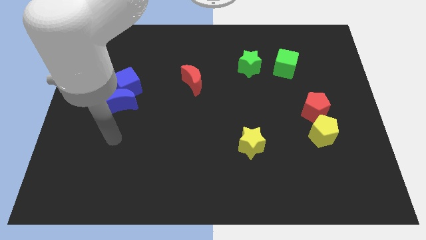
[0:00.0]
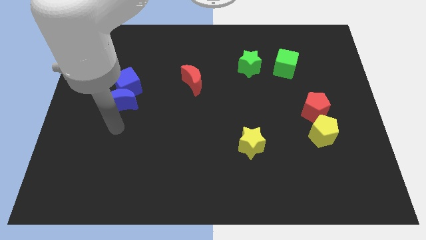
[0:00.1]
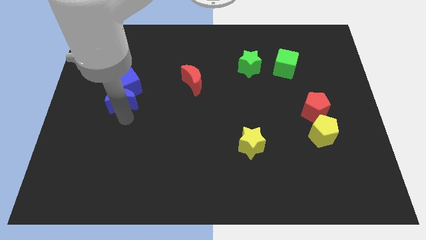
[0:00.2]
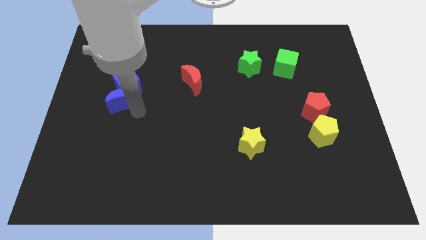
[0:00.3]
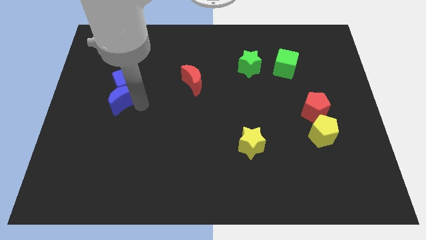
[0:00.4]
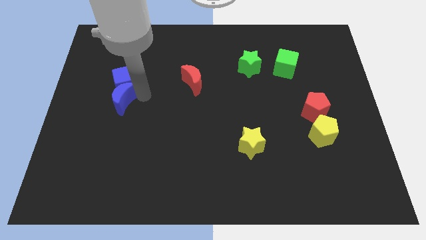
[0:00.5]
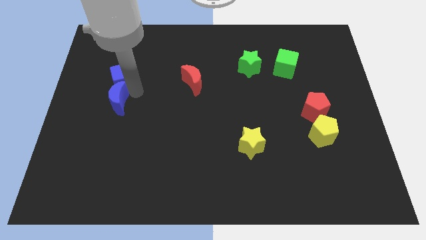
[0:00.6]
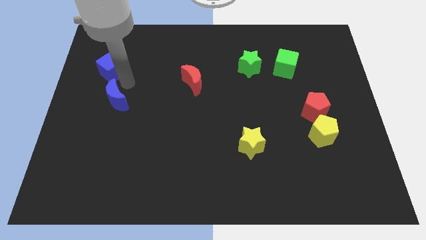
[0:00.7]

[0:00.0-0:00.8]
separate the blue moon from the blue cube

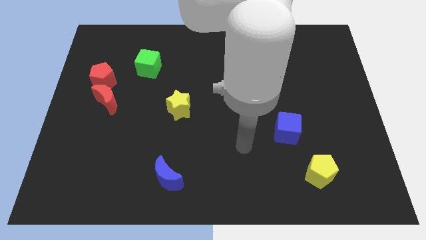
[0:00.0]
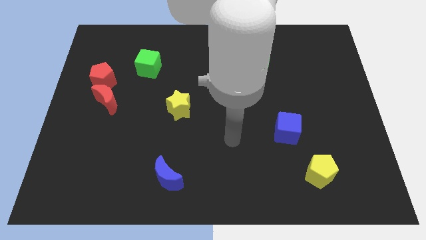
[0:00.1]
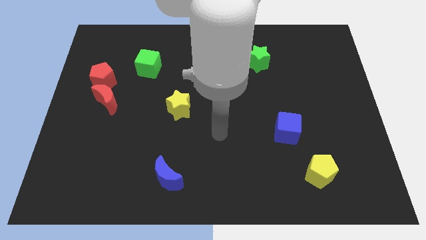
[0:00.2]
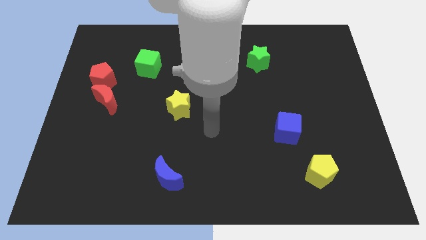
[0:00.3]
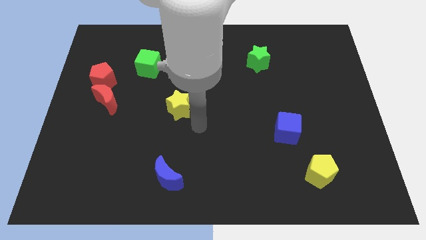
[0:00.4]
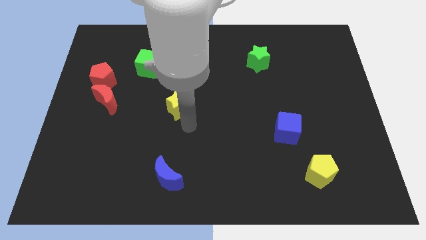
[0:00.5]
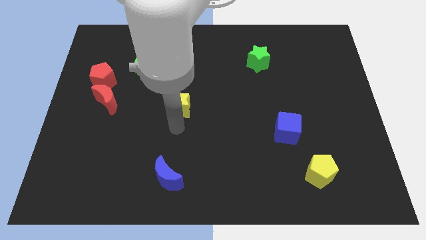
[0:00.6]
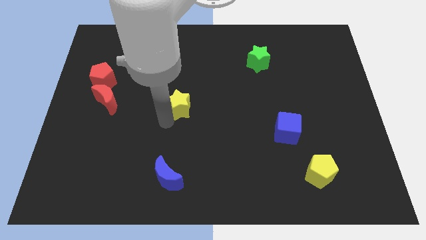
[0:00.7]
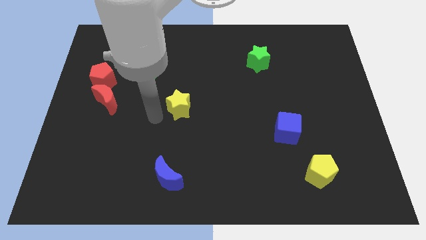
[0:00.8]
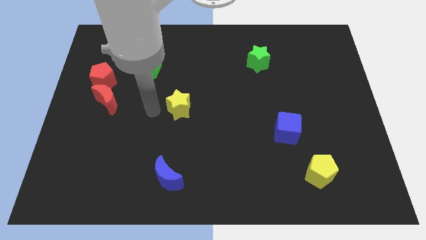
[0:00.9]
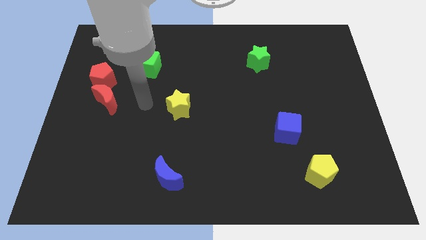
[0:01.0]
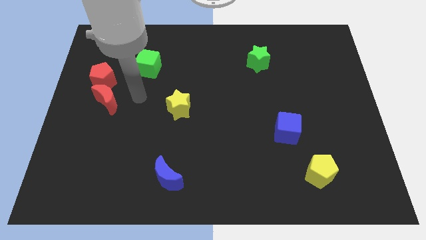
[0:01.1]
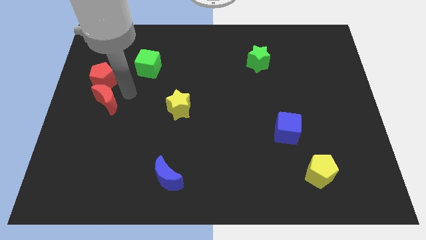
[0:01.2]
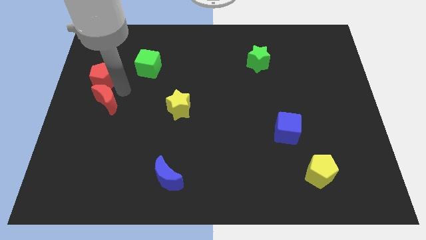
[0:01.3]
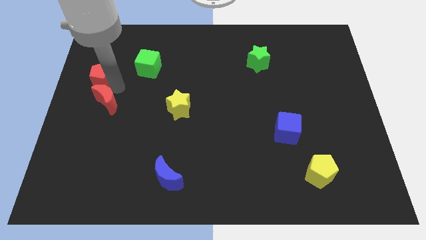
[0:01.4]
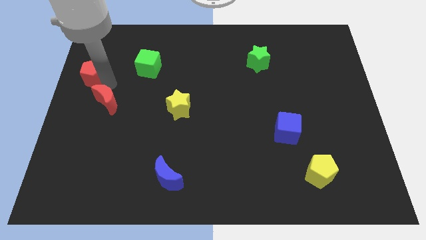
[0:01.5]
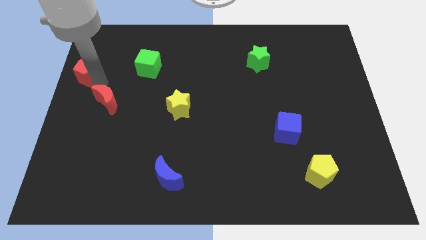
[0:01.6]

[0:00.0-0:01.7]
separate the red moon from the red pentagon

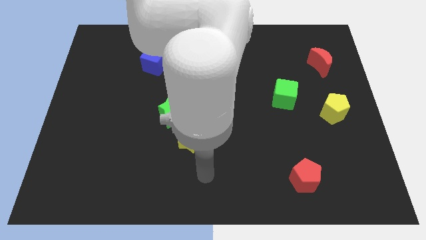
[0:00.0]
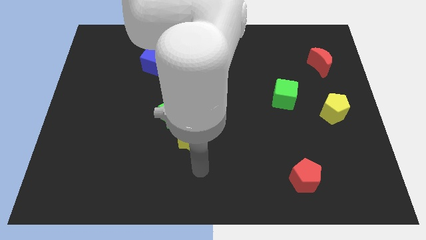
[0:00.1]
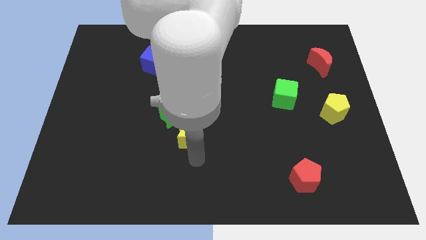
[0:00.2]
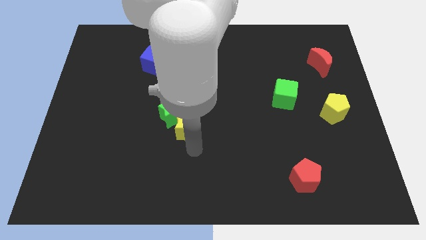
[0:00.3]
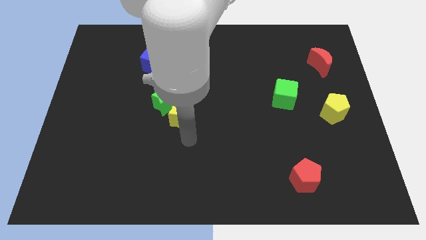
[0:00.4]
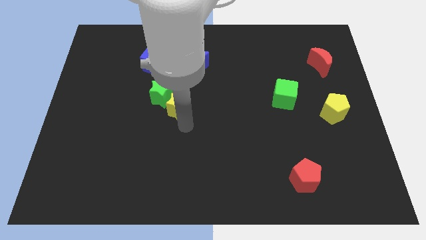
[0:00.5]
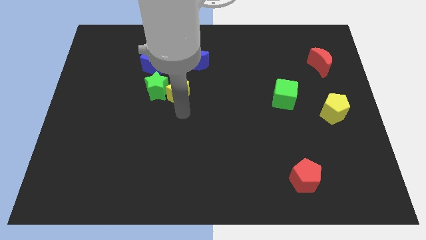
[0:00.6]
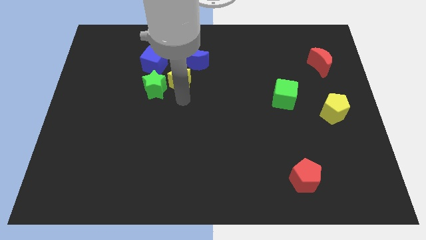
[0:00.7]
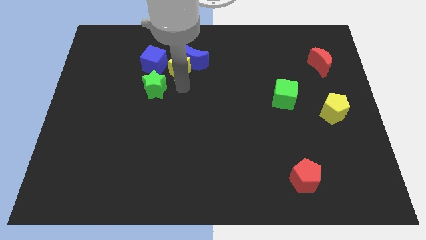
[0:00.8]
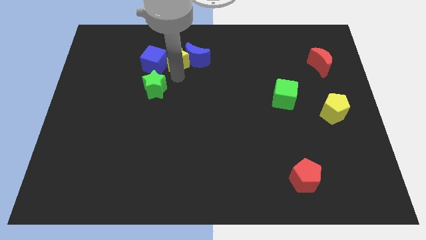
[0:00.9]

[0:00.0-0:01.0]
separate the green star from the yellow star

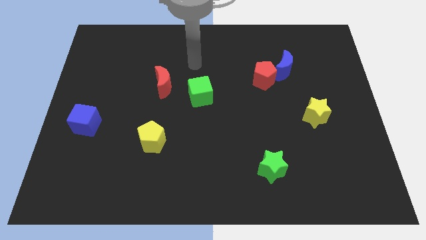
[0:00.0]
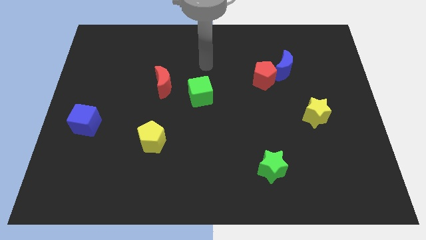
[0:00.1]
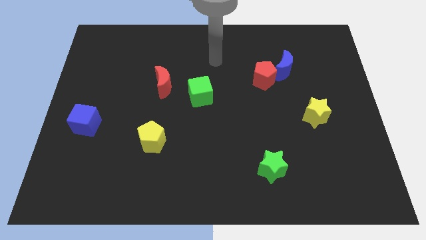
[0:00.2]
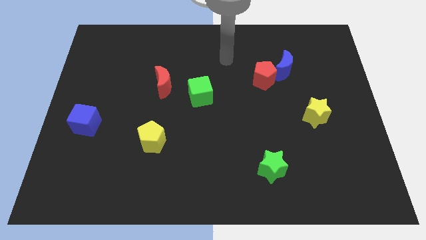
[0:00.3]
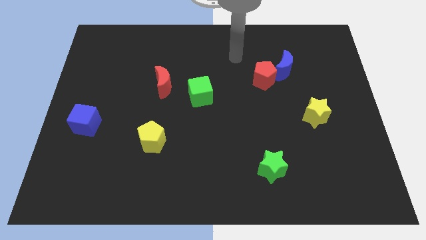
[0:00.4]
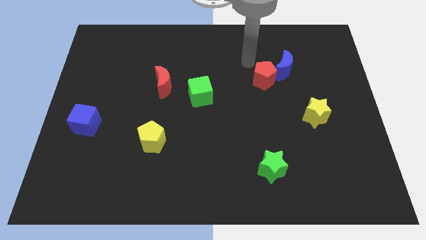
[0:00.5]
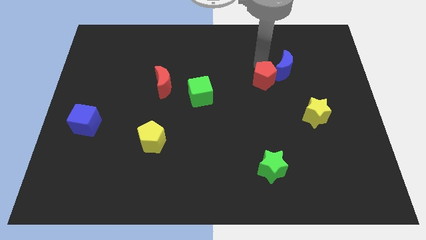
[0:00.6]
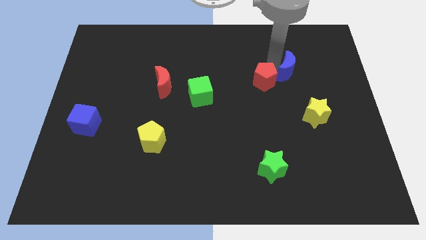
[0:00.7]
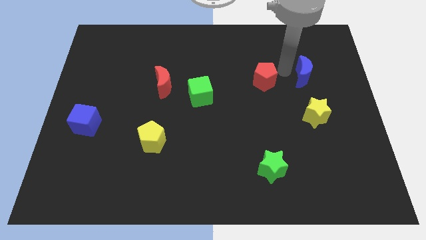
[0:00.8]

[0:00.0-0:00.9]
move the red pentagon away from the blue moon

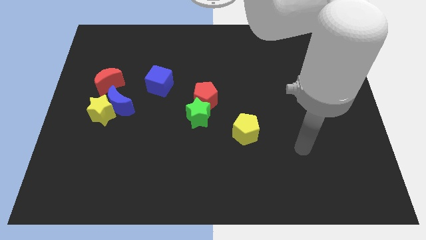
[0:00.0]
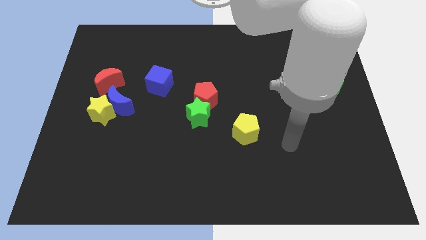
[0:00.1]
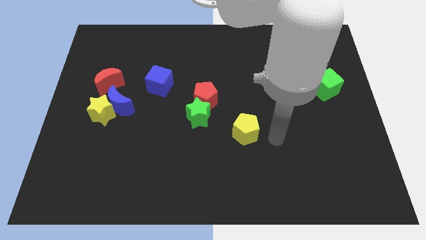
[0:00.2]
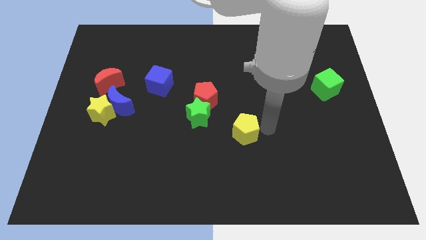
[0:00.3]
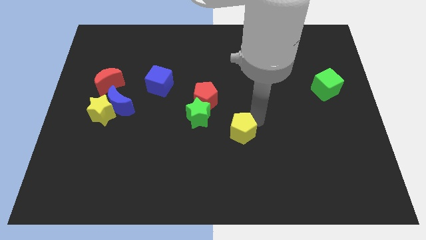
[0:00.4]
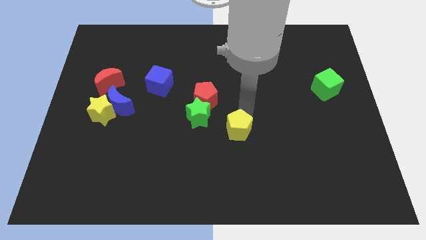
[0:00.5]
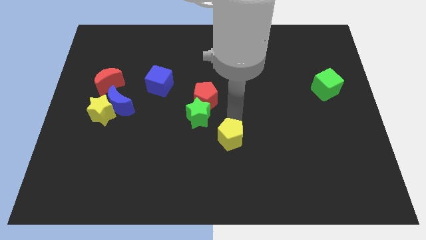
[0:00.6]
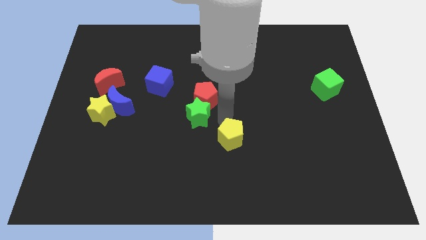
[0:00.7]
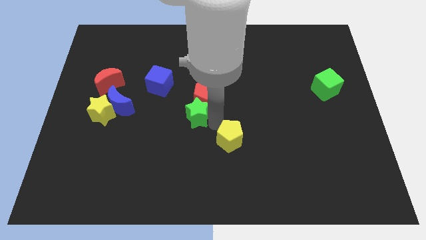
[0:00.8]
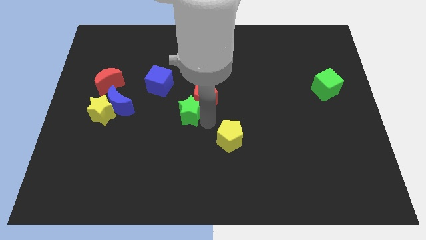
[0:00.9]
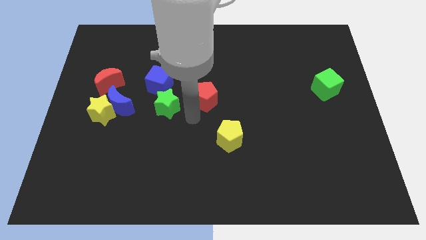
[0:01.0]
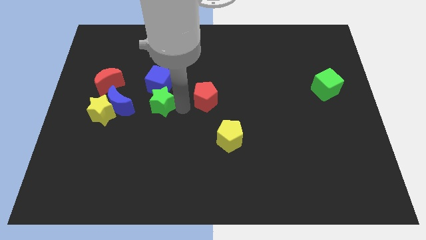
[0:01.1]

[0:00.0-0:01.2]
separate the red pentagon from the green star

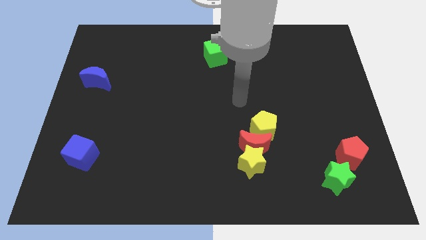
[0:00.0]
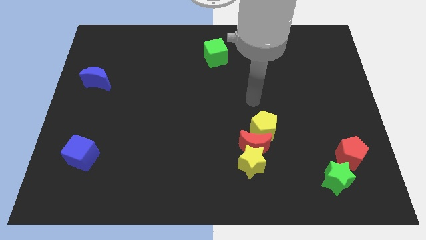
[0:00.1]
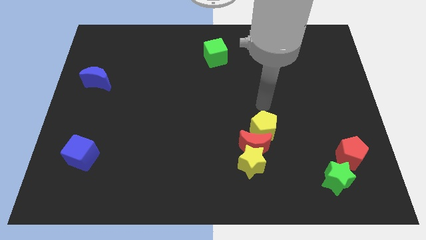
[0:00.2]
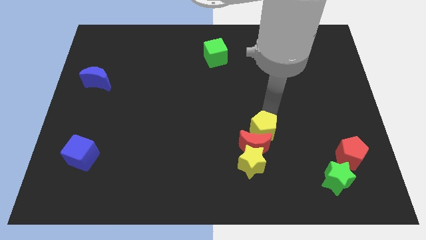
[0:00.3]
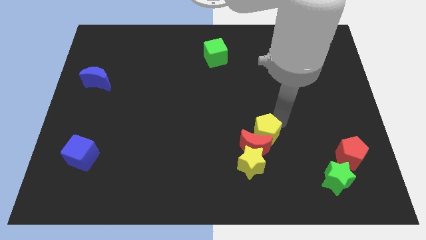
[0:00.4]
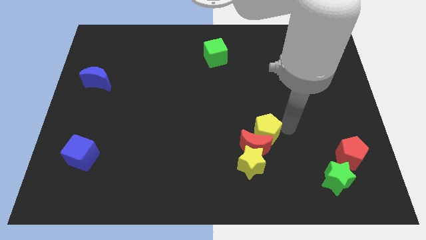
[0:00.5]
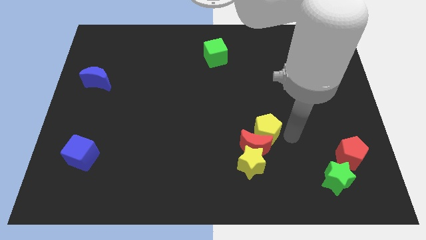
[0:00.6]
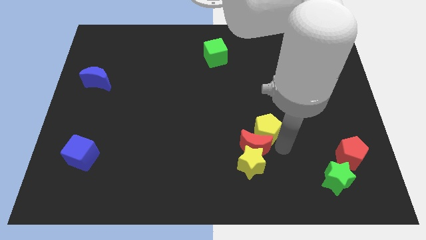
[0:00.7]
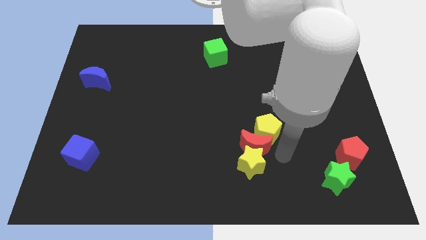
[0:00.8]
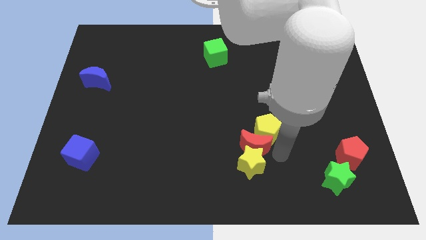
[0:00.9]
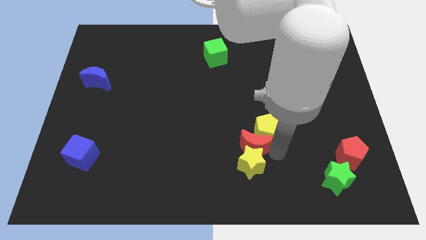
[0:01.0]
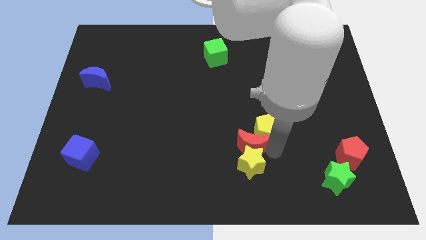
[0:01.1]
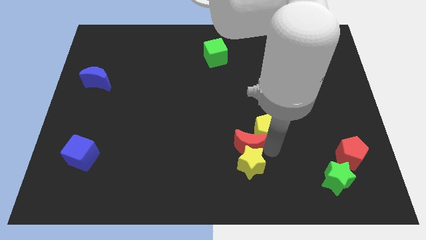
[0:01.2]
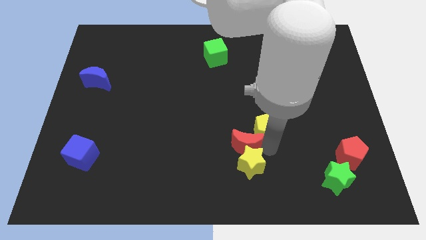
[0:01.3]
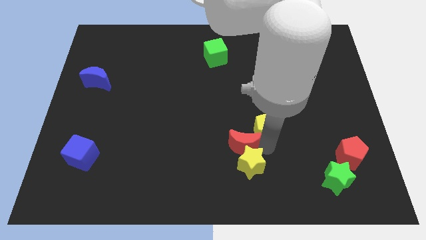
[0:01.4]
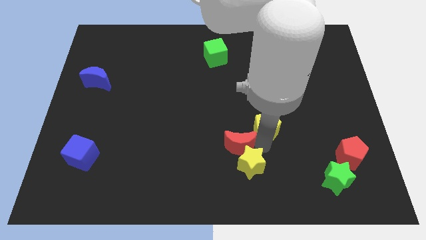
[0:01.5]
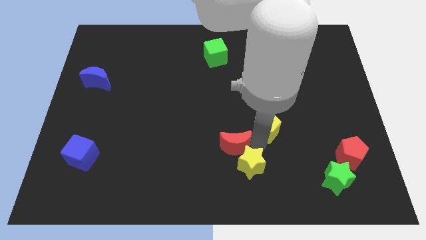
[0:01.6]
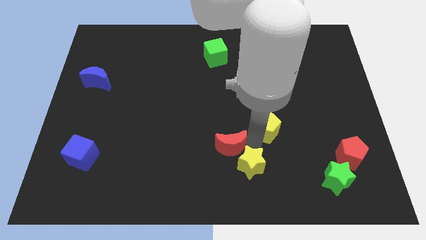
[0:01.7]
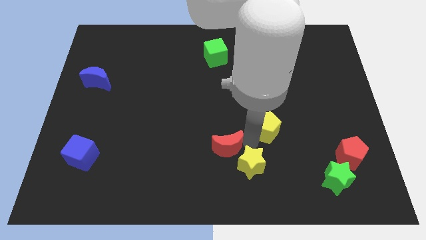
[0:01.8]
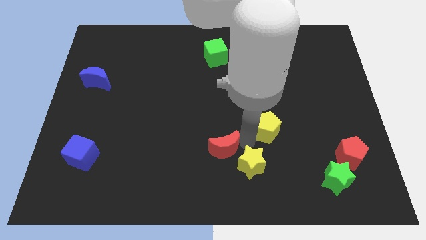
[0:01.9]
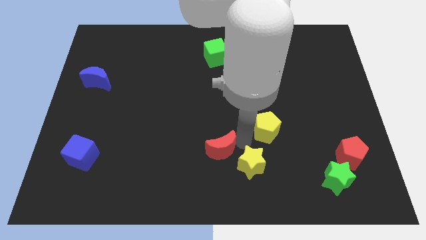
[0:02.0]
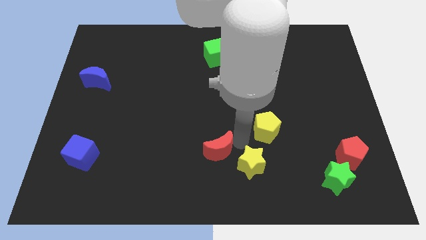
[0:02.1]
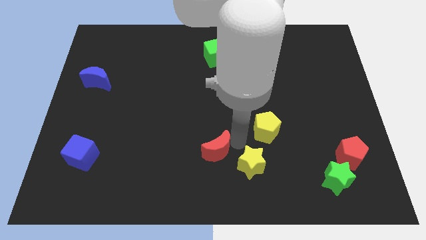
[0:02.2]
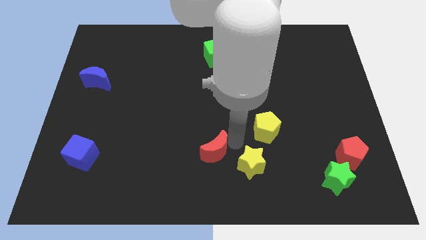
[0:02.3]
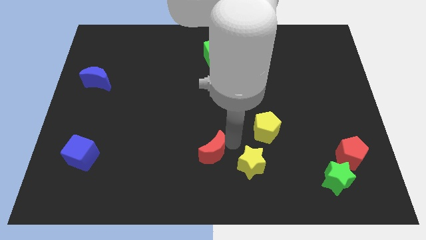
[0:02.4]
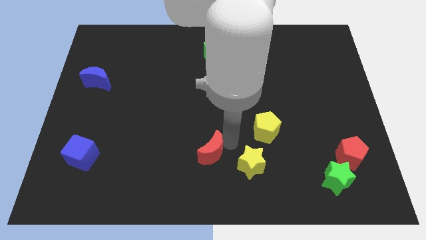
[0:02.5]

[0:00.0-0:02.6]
move the red moon away from the yellow star and yellow pentagon

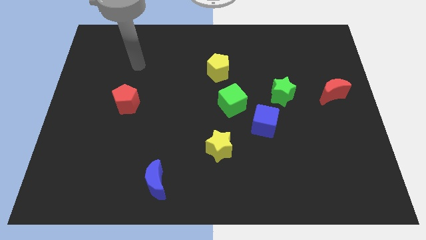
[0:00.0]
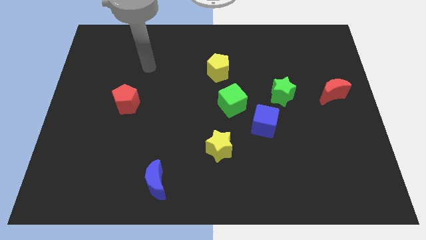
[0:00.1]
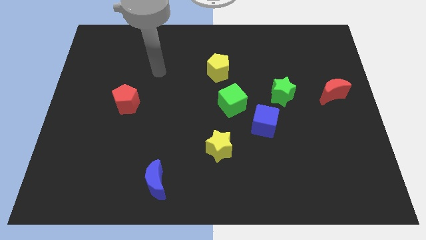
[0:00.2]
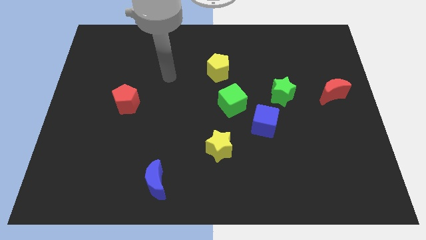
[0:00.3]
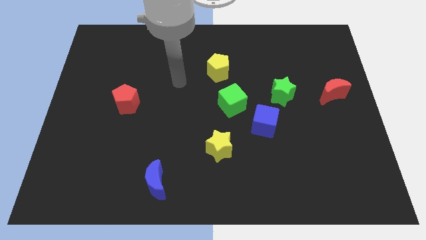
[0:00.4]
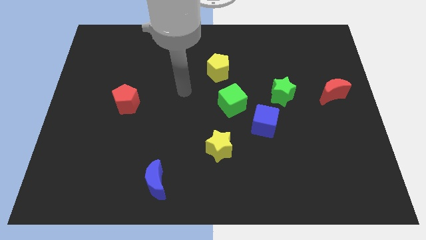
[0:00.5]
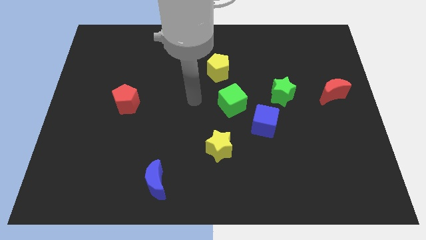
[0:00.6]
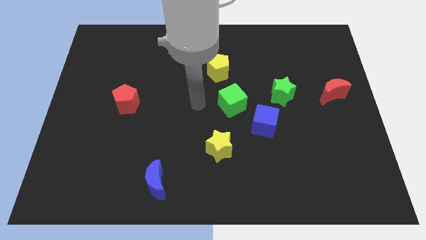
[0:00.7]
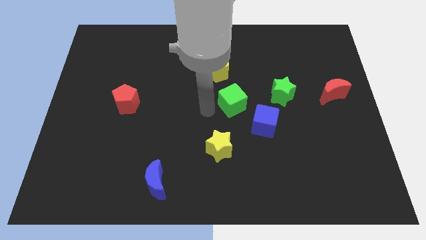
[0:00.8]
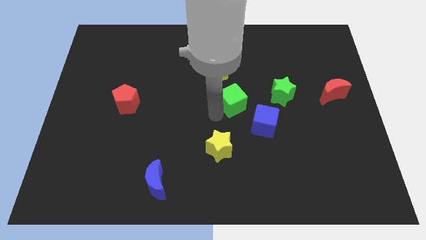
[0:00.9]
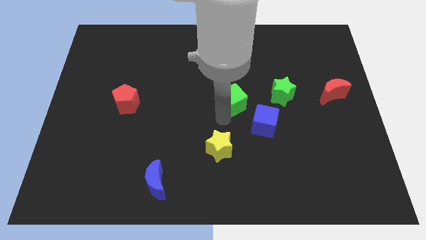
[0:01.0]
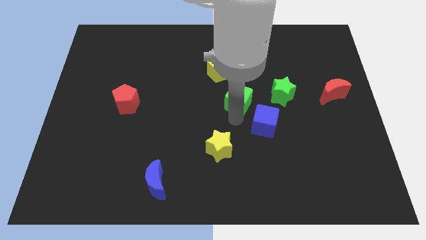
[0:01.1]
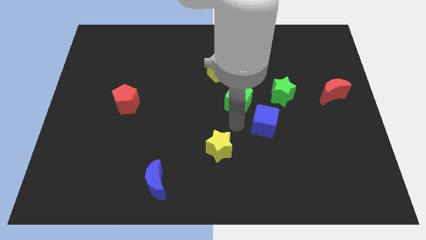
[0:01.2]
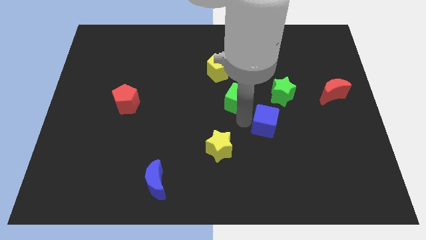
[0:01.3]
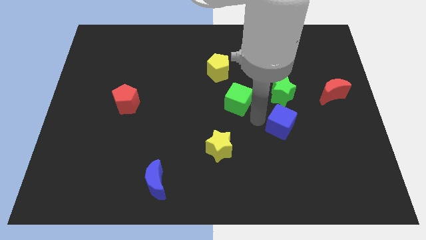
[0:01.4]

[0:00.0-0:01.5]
move the green cube away from the blue cube
